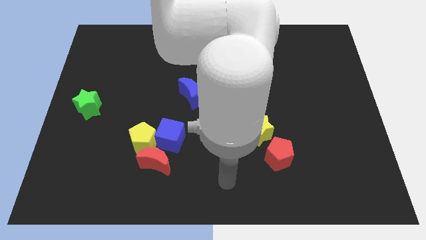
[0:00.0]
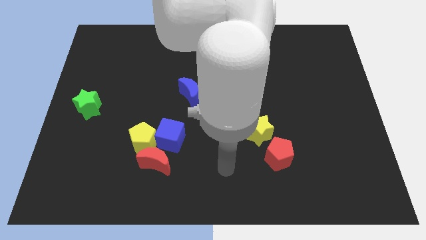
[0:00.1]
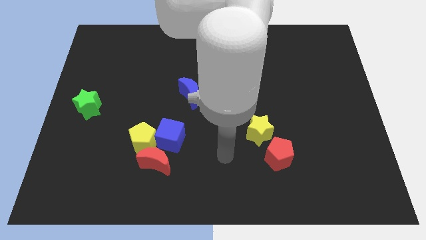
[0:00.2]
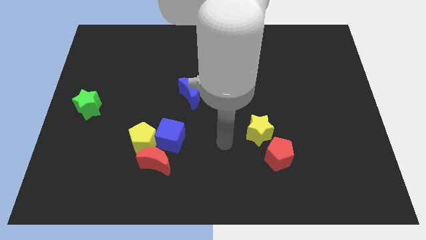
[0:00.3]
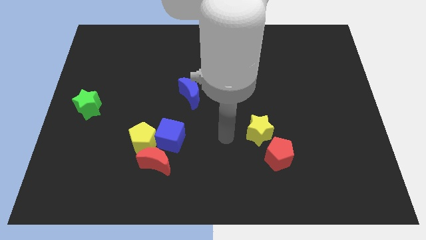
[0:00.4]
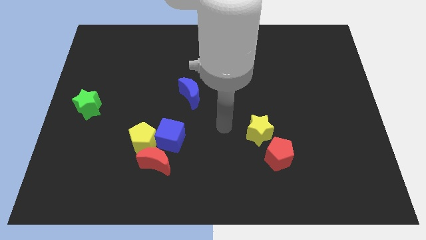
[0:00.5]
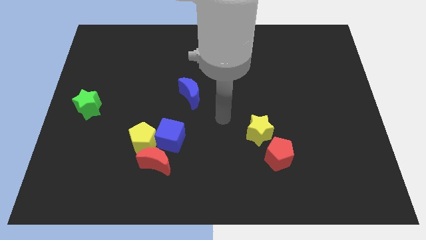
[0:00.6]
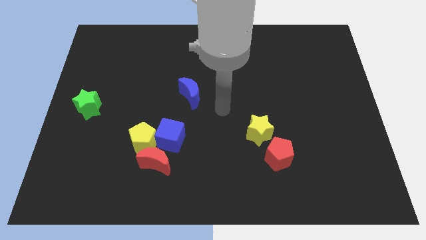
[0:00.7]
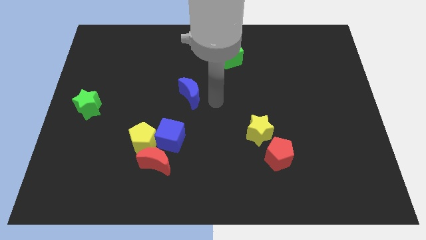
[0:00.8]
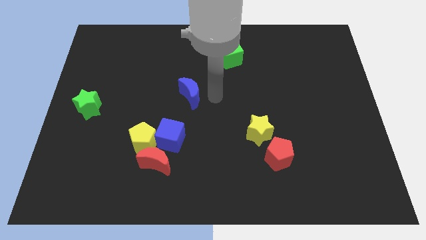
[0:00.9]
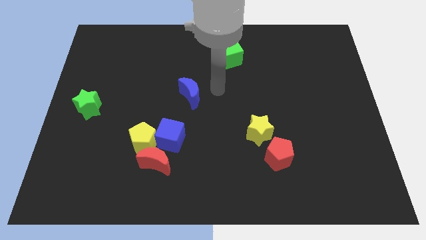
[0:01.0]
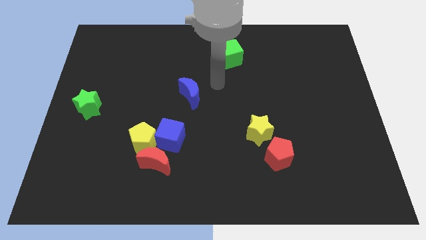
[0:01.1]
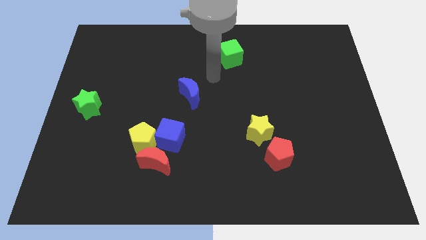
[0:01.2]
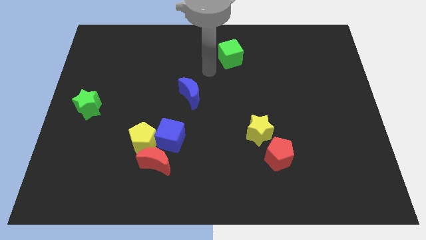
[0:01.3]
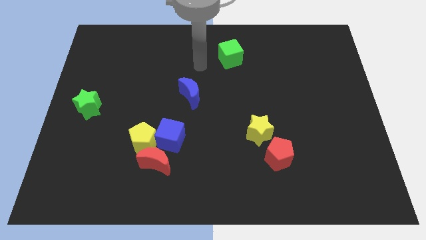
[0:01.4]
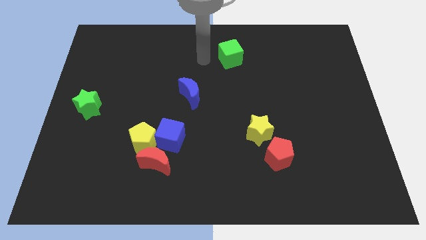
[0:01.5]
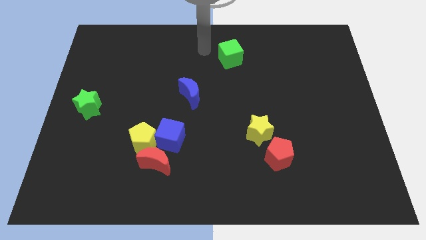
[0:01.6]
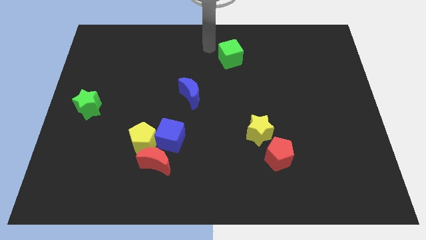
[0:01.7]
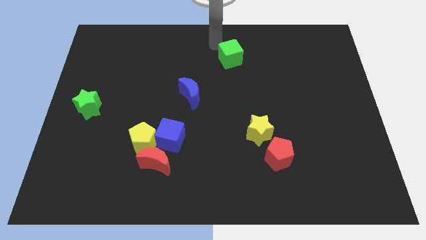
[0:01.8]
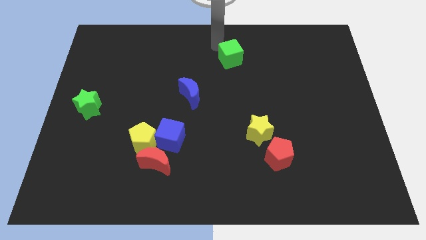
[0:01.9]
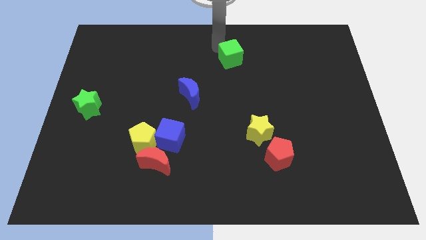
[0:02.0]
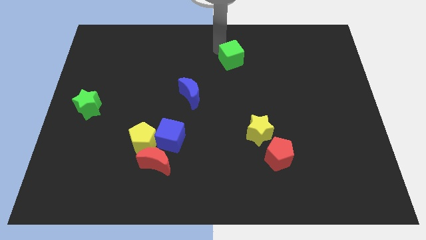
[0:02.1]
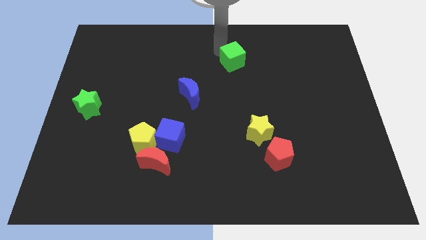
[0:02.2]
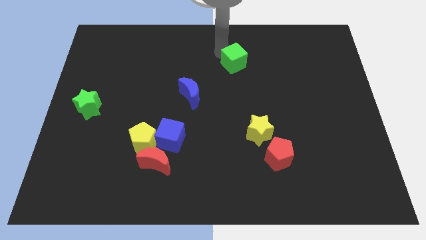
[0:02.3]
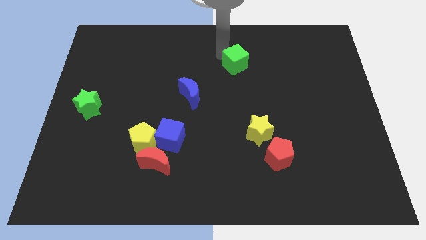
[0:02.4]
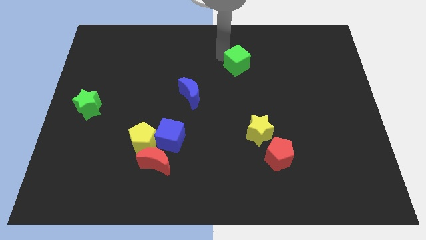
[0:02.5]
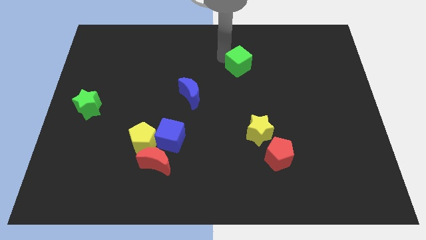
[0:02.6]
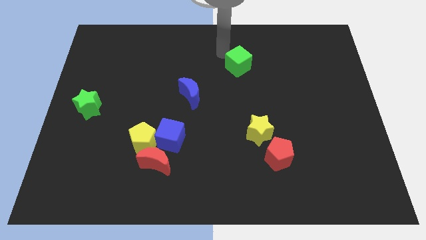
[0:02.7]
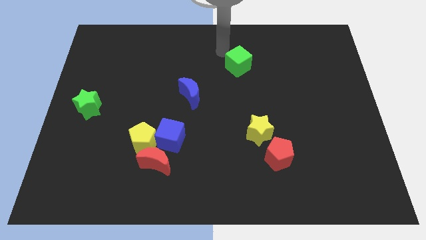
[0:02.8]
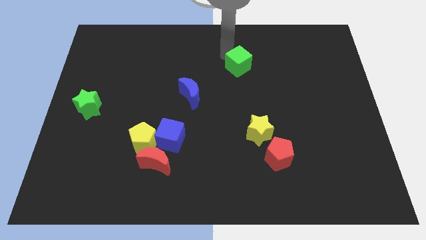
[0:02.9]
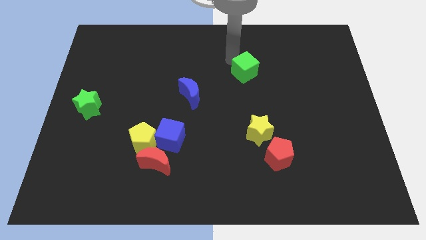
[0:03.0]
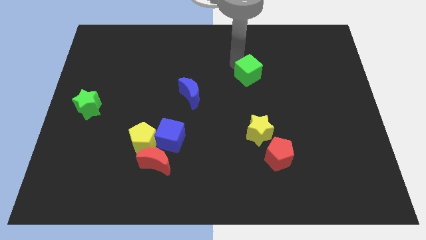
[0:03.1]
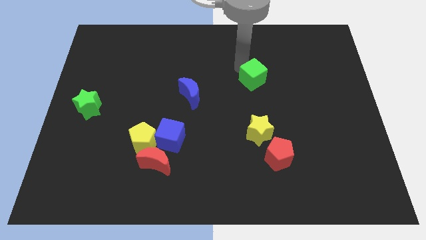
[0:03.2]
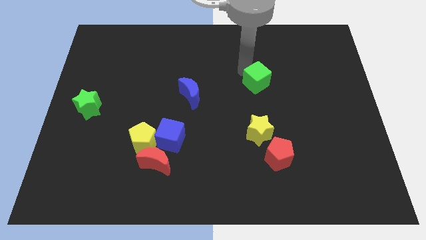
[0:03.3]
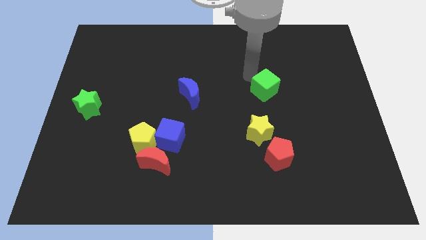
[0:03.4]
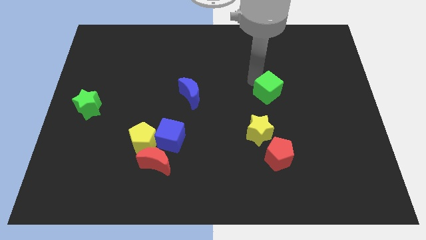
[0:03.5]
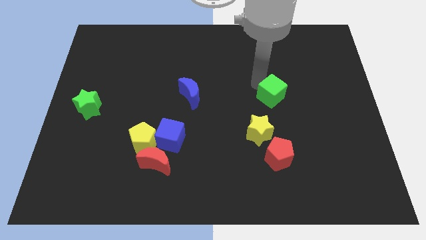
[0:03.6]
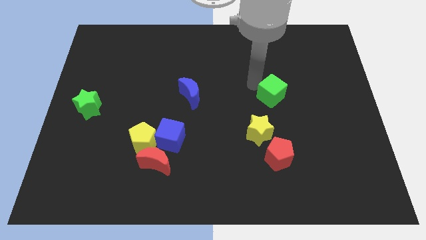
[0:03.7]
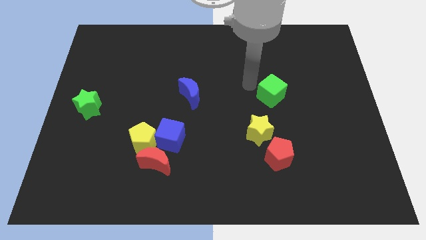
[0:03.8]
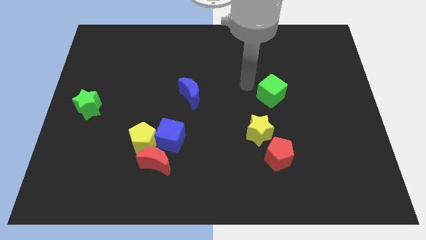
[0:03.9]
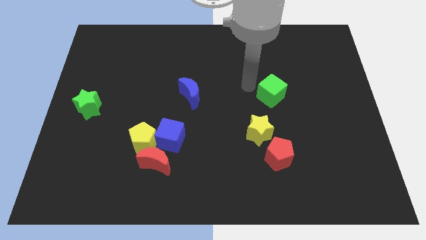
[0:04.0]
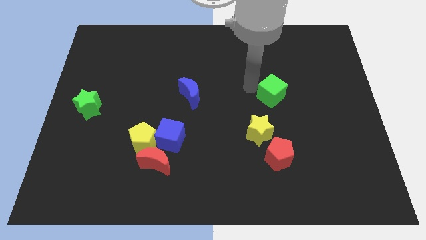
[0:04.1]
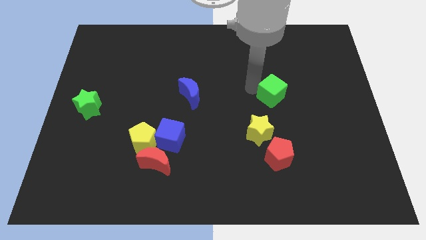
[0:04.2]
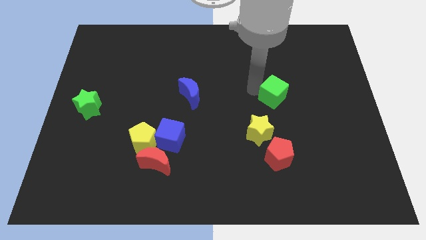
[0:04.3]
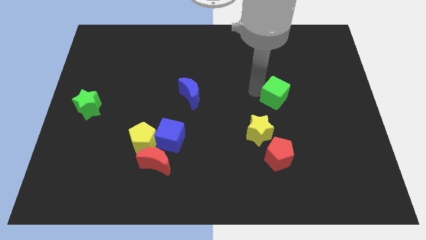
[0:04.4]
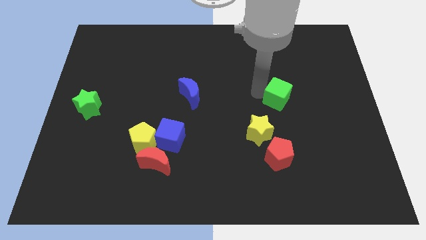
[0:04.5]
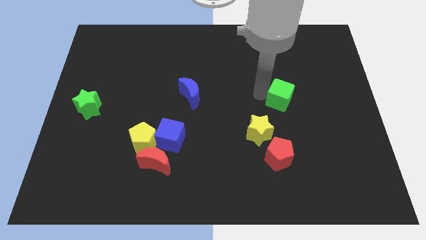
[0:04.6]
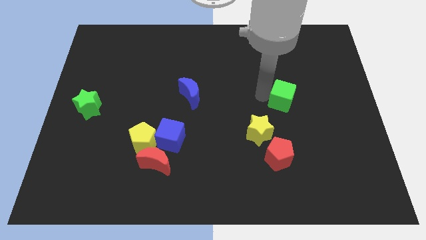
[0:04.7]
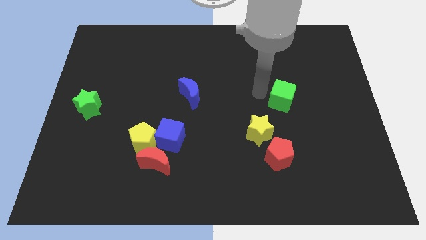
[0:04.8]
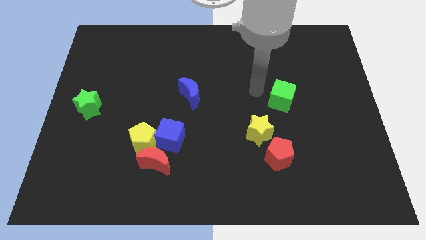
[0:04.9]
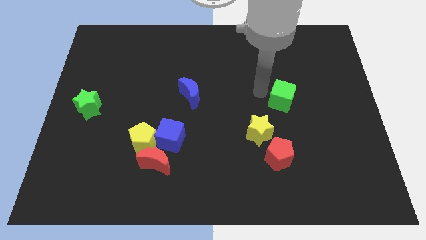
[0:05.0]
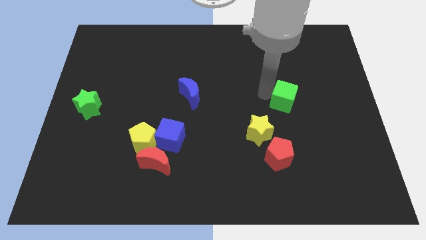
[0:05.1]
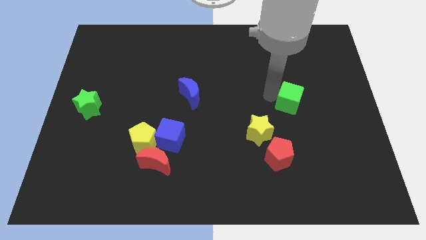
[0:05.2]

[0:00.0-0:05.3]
move the green cube downwards and then right

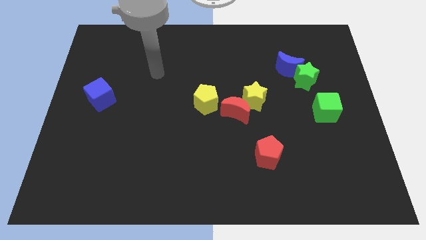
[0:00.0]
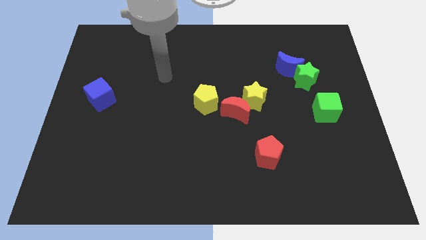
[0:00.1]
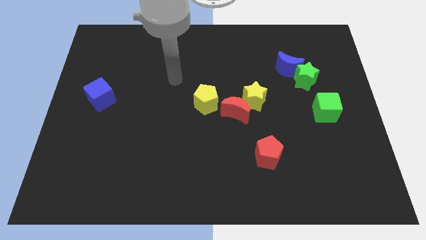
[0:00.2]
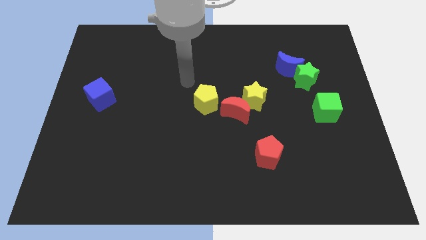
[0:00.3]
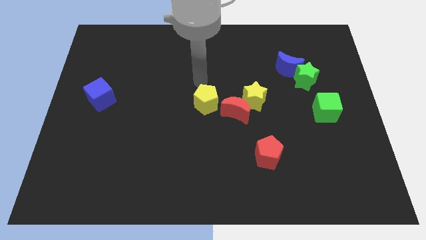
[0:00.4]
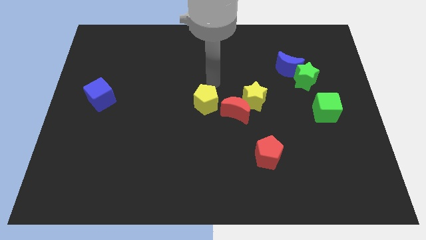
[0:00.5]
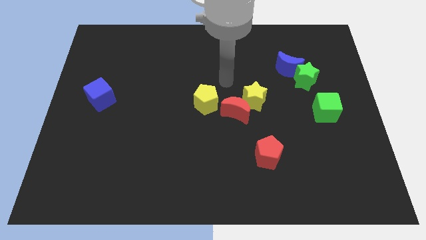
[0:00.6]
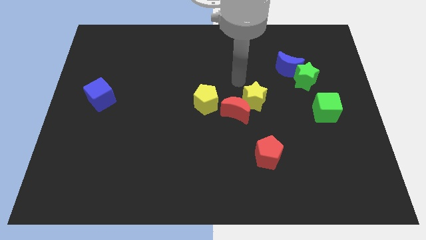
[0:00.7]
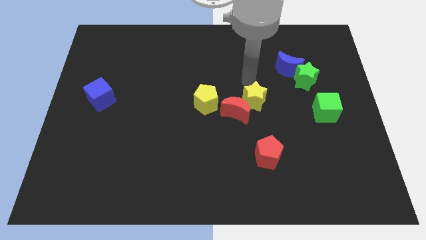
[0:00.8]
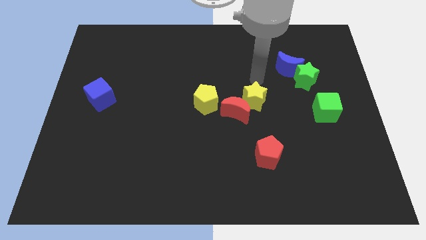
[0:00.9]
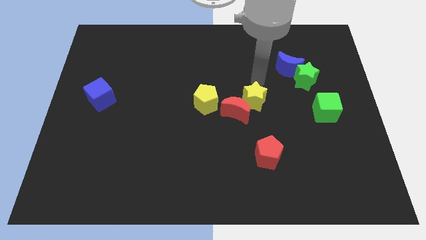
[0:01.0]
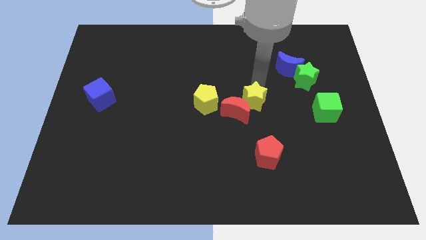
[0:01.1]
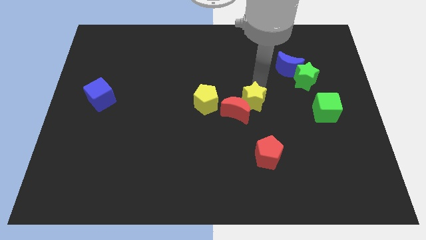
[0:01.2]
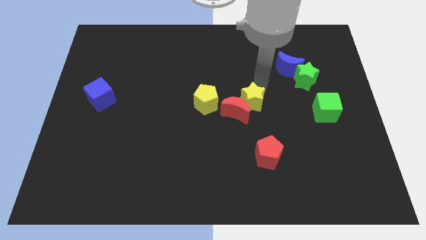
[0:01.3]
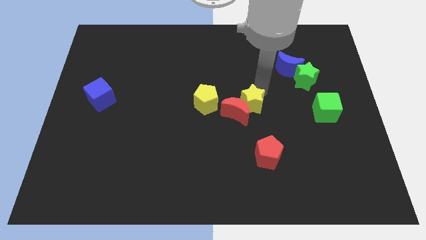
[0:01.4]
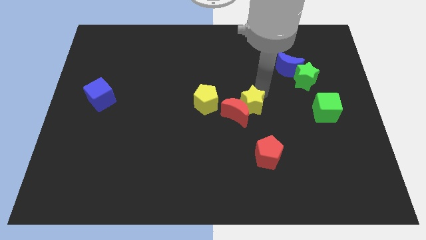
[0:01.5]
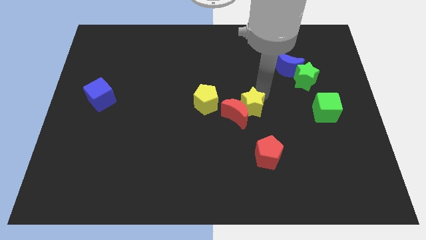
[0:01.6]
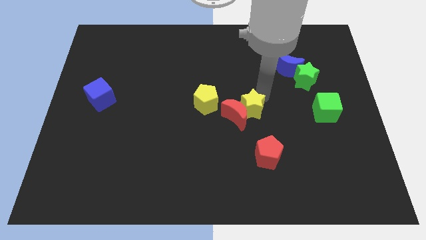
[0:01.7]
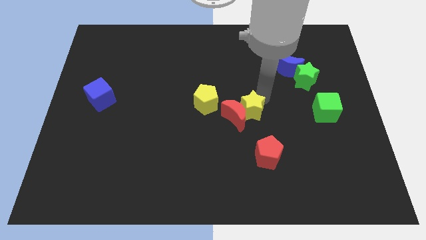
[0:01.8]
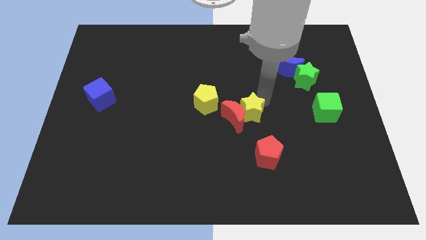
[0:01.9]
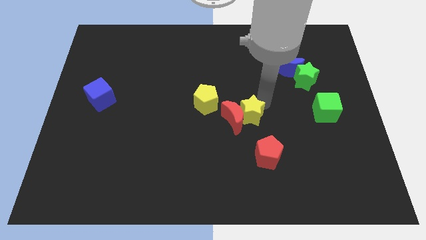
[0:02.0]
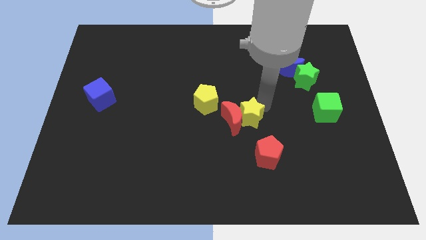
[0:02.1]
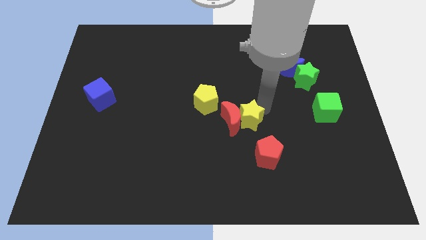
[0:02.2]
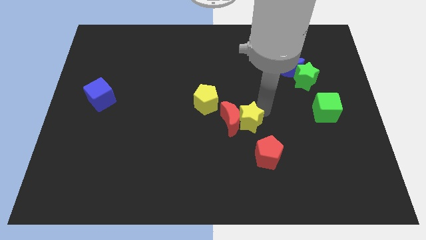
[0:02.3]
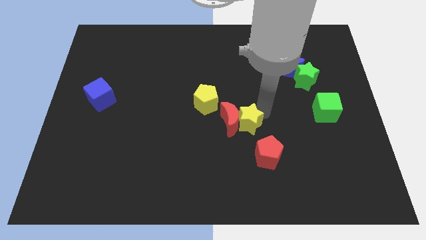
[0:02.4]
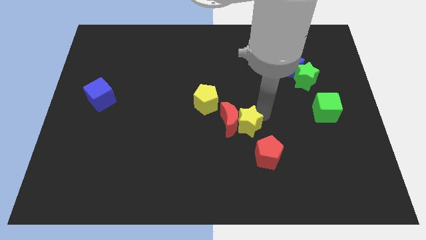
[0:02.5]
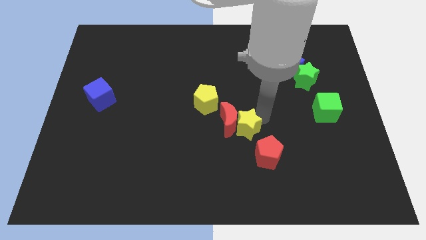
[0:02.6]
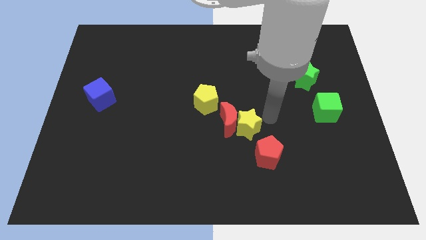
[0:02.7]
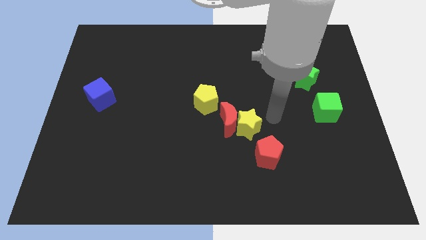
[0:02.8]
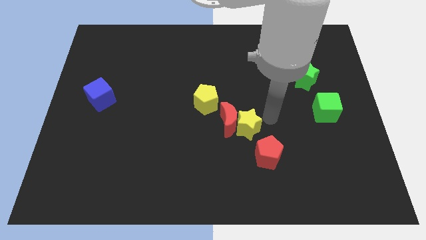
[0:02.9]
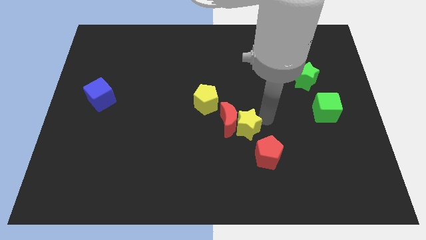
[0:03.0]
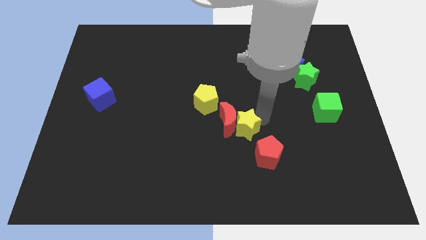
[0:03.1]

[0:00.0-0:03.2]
move the yellow star down and to the left diagonally slightly
